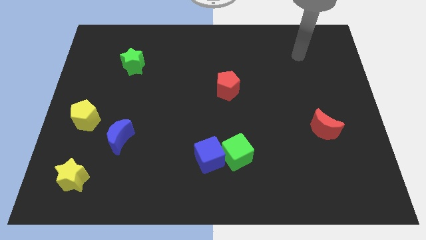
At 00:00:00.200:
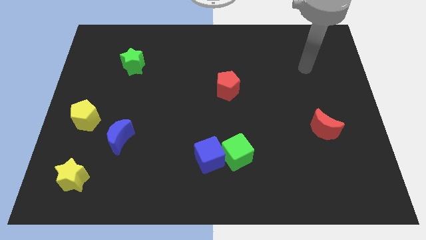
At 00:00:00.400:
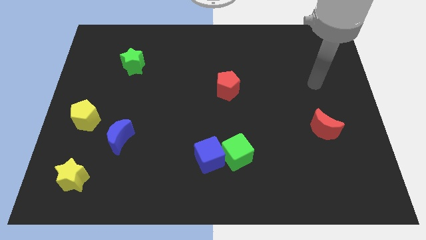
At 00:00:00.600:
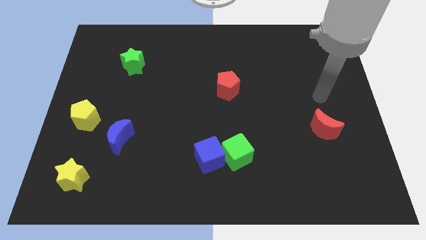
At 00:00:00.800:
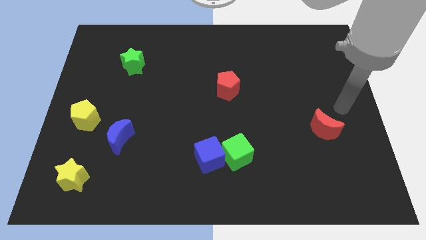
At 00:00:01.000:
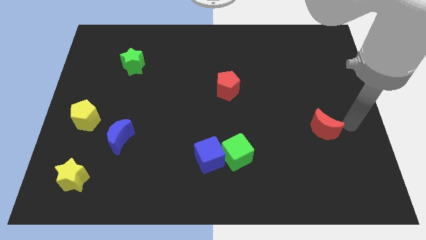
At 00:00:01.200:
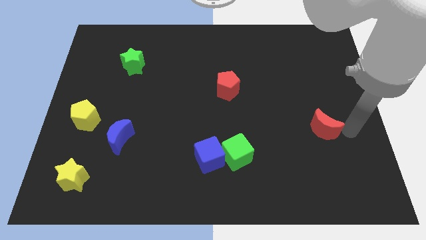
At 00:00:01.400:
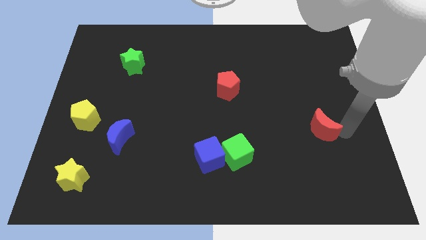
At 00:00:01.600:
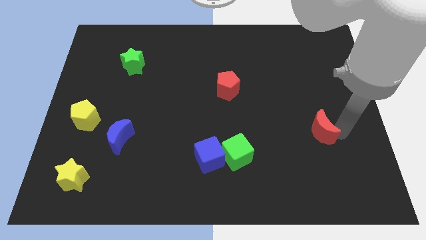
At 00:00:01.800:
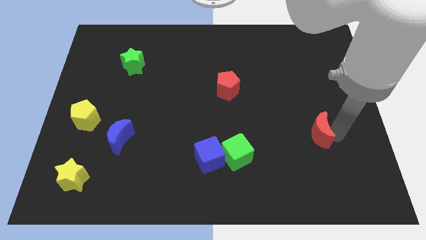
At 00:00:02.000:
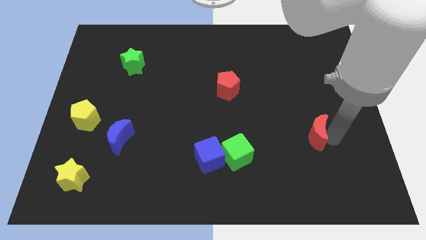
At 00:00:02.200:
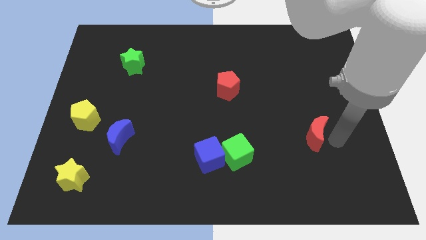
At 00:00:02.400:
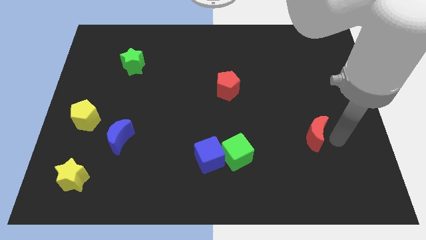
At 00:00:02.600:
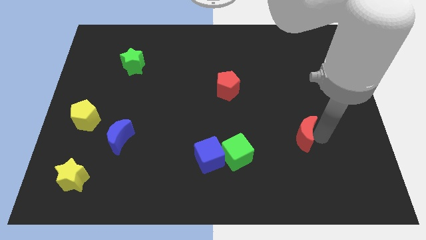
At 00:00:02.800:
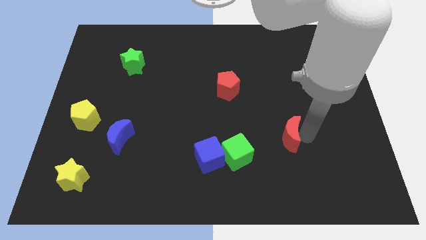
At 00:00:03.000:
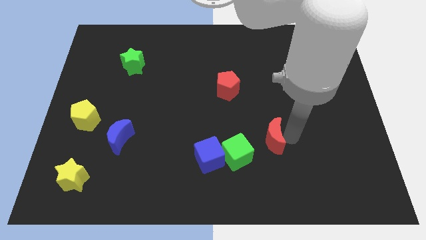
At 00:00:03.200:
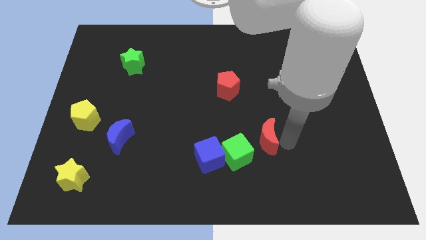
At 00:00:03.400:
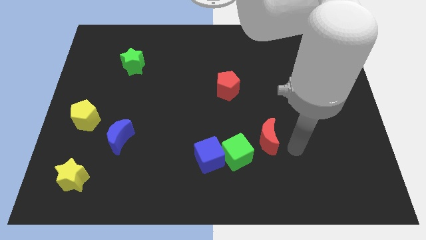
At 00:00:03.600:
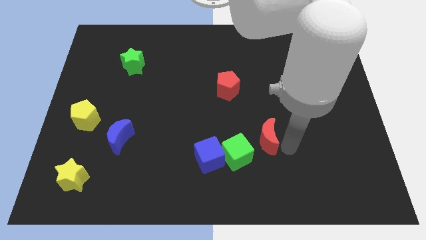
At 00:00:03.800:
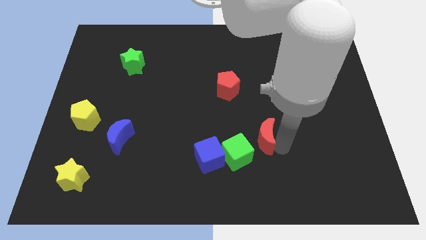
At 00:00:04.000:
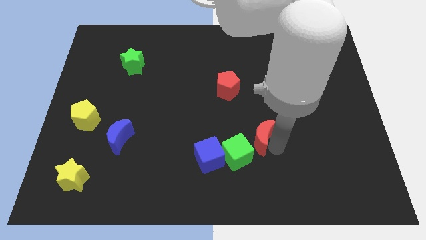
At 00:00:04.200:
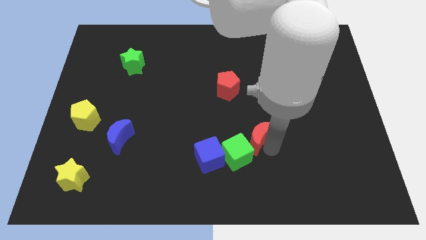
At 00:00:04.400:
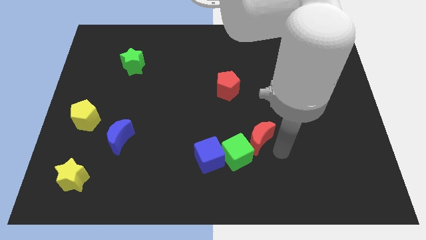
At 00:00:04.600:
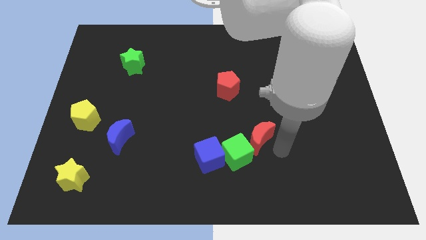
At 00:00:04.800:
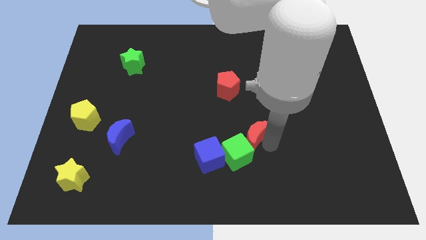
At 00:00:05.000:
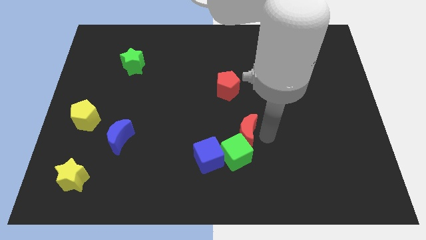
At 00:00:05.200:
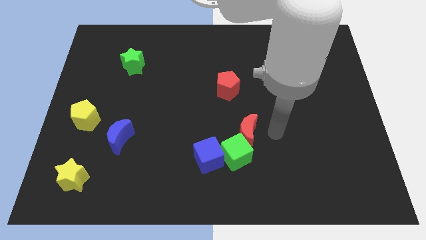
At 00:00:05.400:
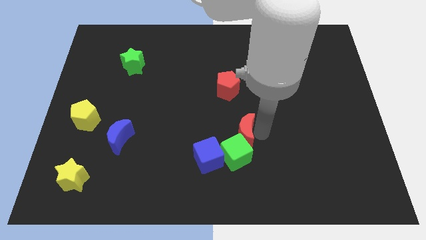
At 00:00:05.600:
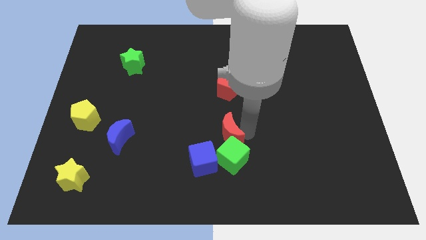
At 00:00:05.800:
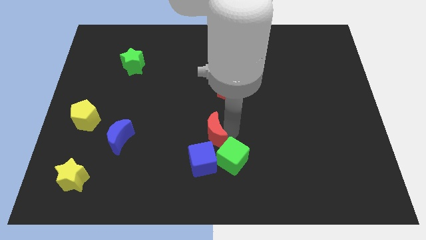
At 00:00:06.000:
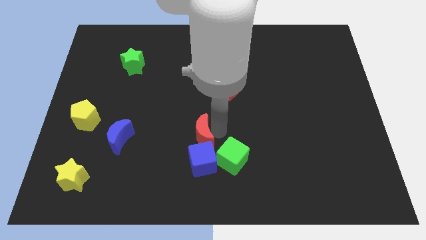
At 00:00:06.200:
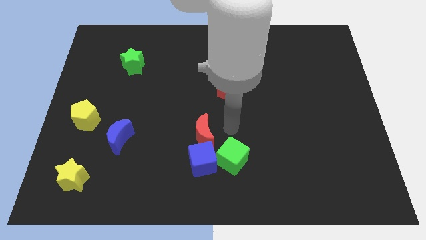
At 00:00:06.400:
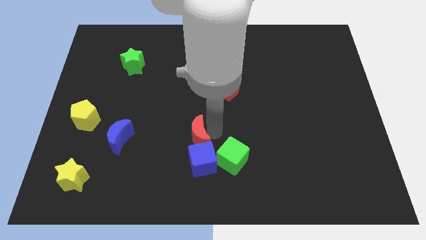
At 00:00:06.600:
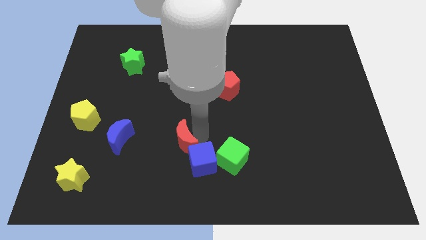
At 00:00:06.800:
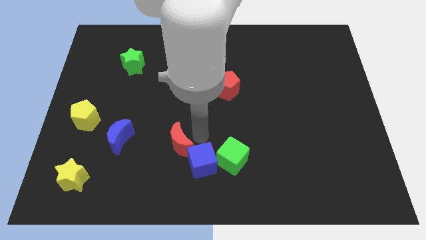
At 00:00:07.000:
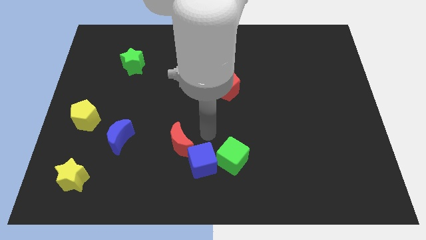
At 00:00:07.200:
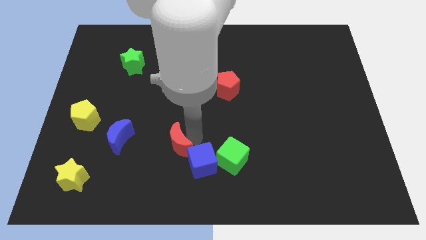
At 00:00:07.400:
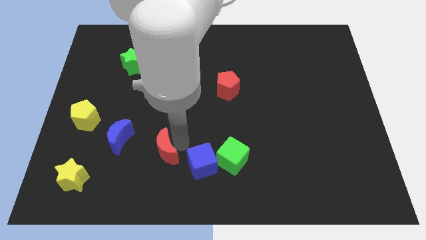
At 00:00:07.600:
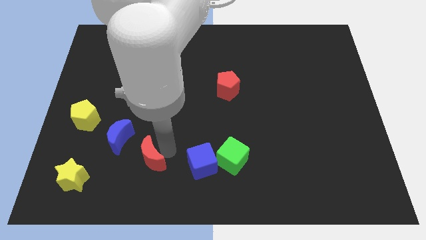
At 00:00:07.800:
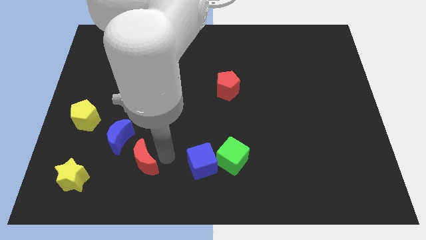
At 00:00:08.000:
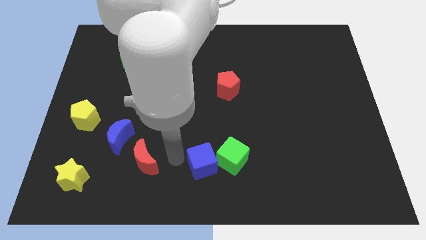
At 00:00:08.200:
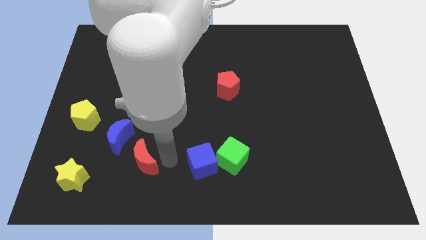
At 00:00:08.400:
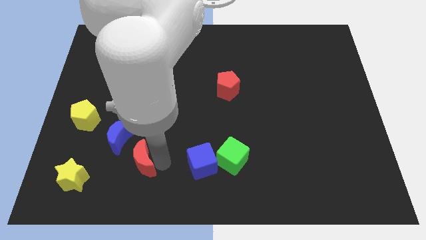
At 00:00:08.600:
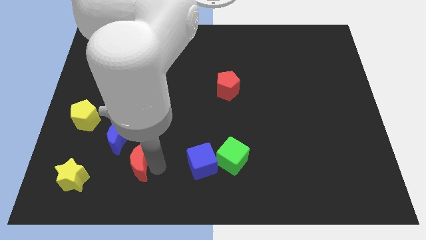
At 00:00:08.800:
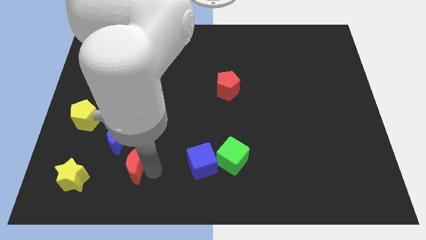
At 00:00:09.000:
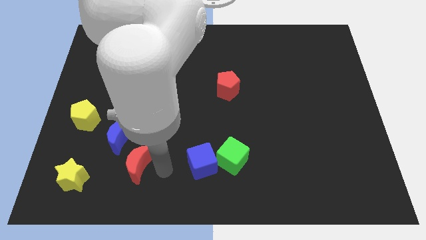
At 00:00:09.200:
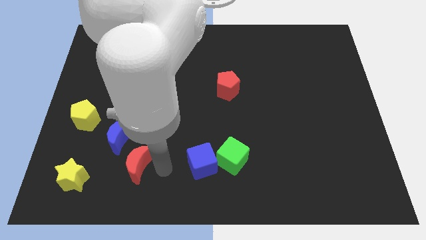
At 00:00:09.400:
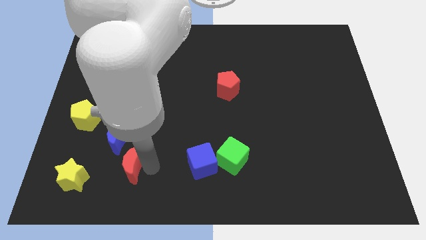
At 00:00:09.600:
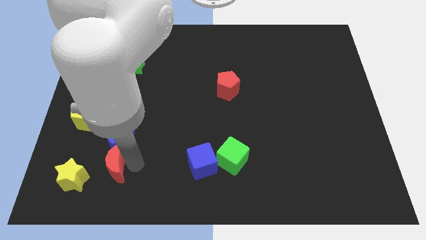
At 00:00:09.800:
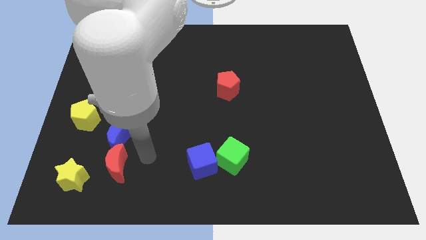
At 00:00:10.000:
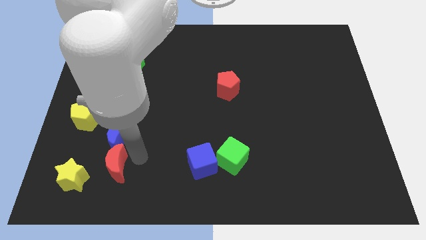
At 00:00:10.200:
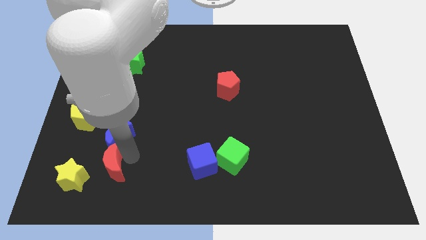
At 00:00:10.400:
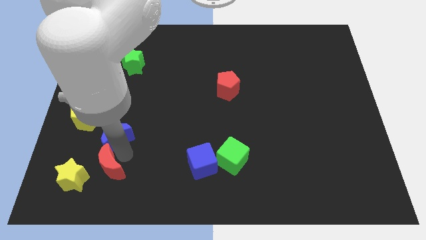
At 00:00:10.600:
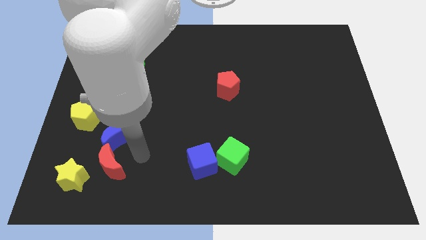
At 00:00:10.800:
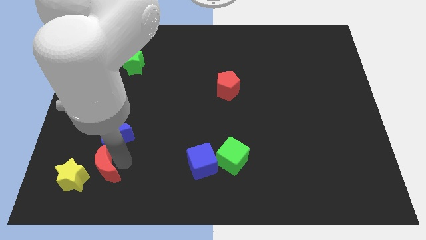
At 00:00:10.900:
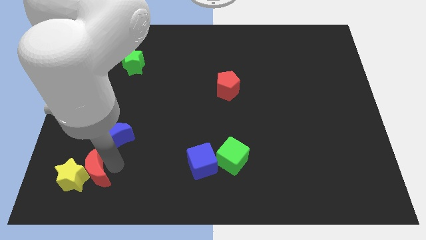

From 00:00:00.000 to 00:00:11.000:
put the red moon close to the yellow star

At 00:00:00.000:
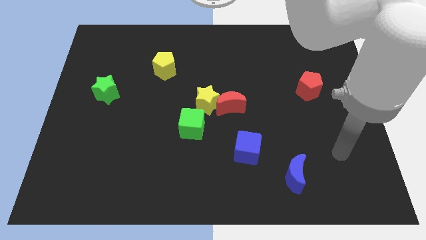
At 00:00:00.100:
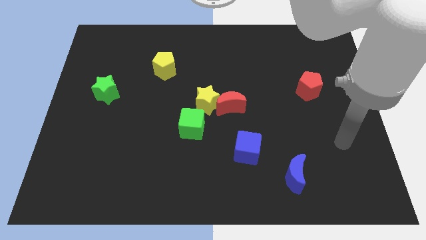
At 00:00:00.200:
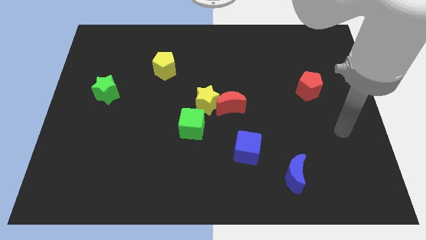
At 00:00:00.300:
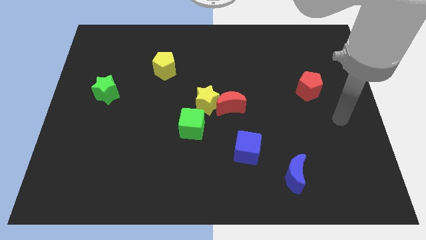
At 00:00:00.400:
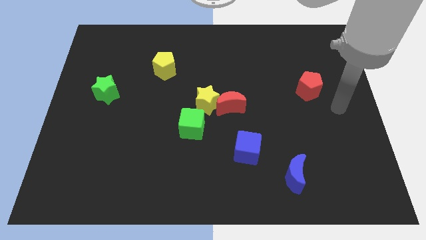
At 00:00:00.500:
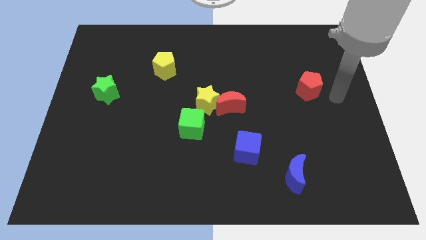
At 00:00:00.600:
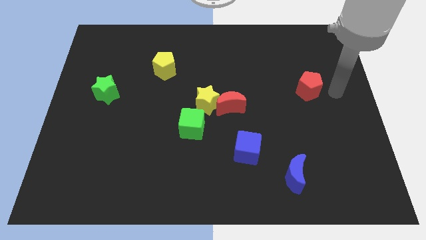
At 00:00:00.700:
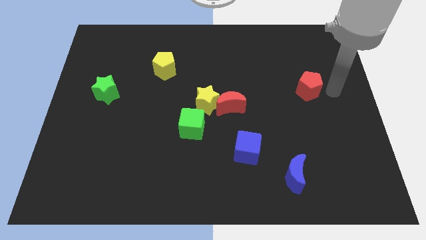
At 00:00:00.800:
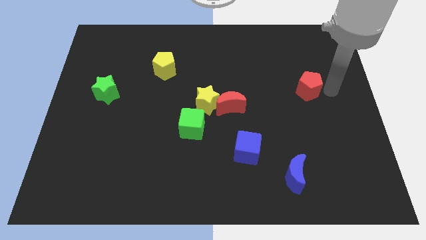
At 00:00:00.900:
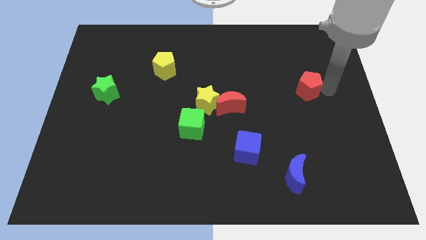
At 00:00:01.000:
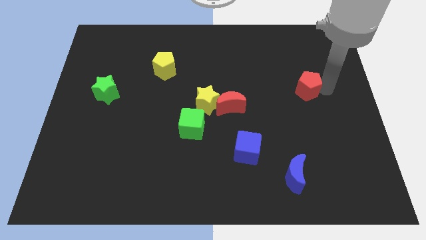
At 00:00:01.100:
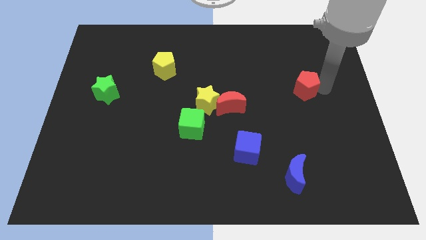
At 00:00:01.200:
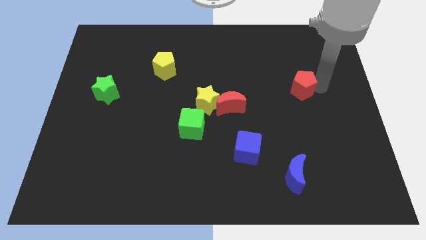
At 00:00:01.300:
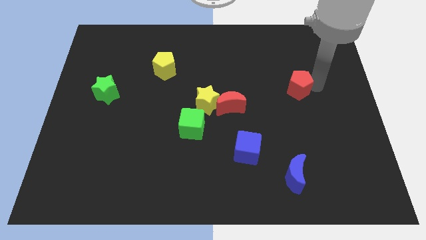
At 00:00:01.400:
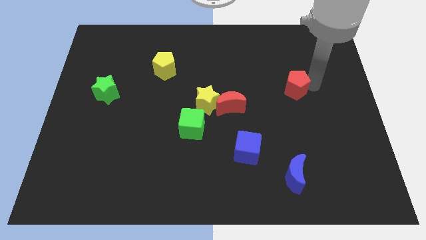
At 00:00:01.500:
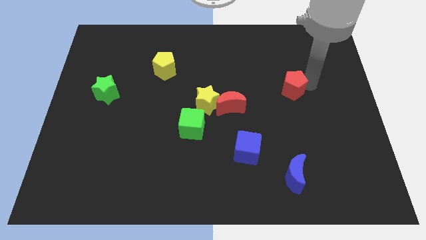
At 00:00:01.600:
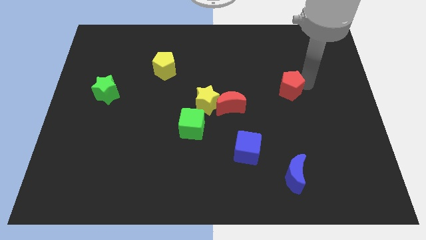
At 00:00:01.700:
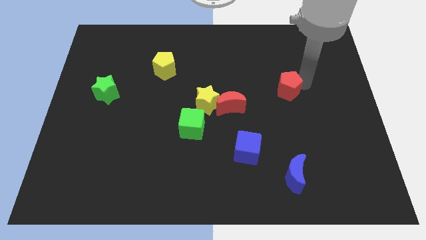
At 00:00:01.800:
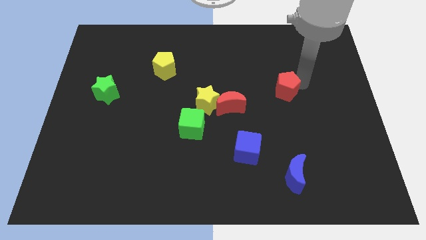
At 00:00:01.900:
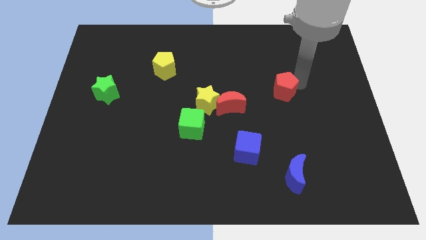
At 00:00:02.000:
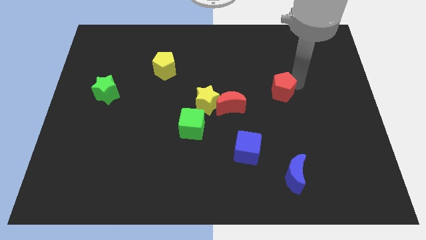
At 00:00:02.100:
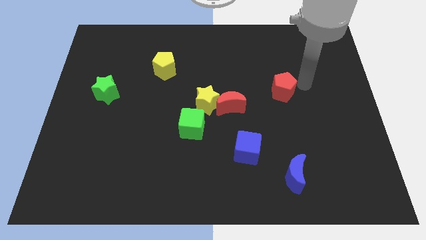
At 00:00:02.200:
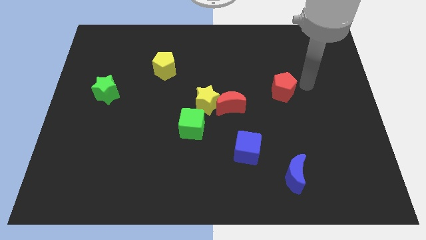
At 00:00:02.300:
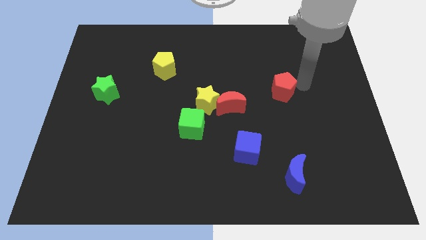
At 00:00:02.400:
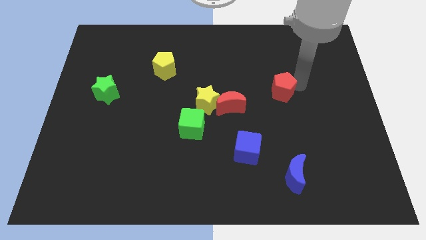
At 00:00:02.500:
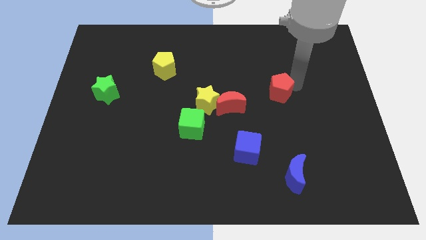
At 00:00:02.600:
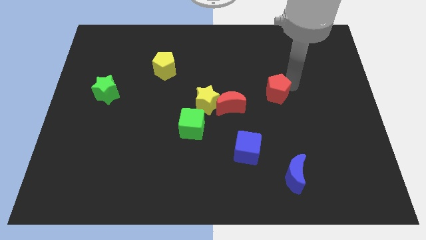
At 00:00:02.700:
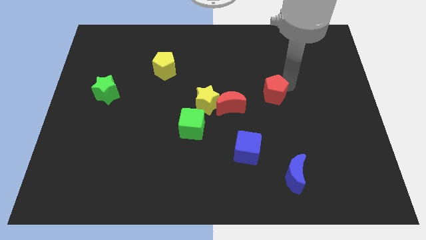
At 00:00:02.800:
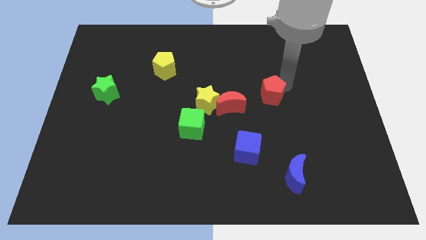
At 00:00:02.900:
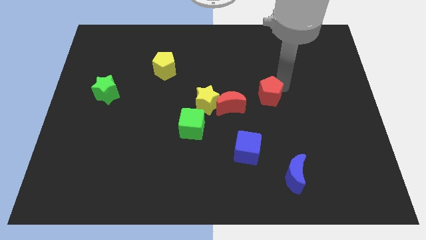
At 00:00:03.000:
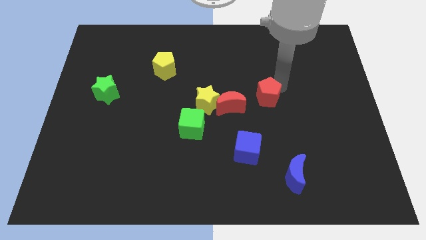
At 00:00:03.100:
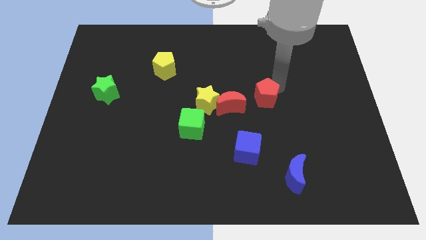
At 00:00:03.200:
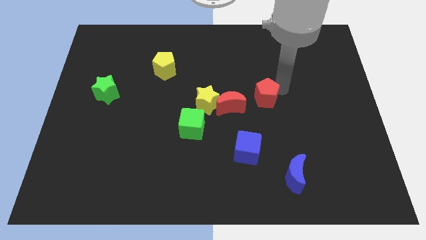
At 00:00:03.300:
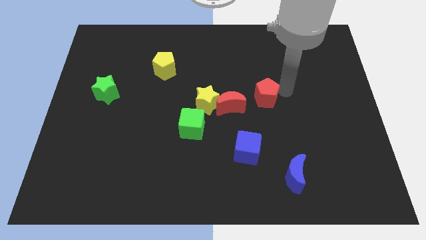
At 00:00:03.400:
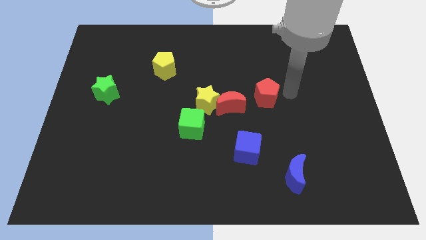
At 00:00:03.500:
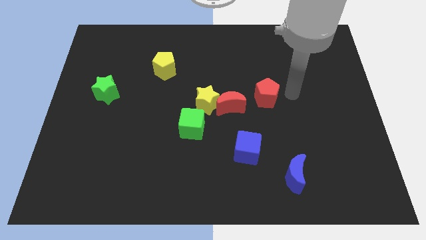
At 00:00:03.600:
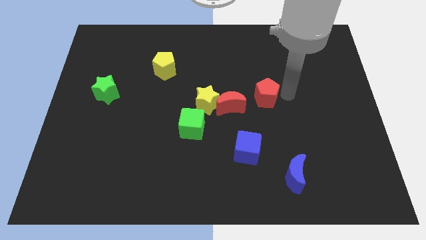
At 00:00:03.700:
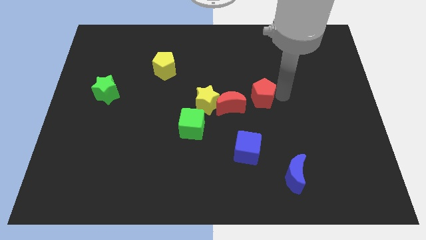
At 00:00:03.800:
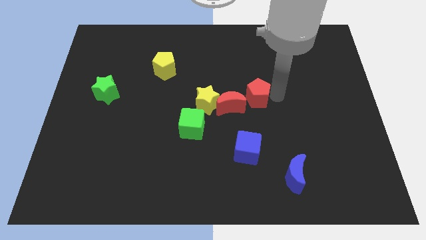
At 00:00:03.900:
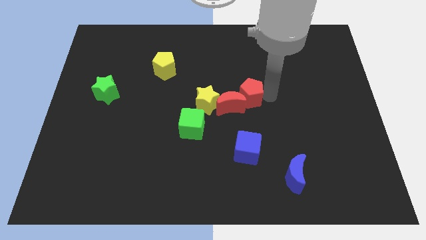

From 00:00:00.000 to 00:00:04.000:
move the red pentagon towards the red moon
